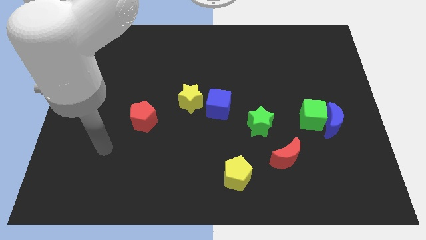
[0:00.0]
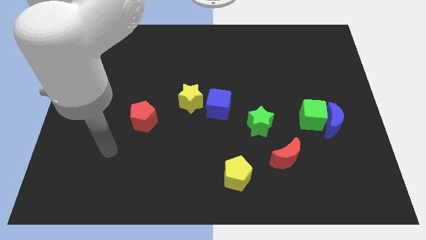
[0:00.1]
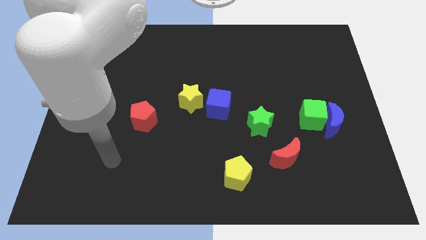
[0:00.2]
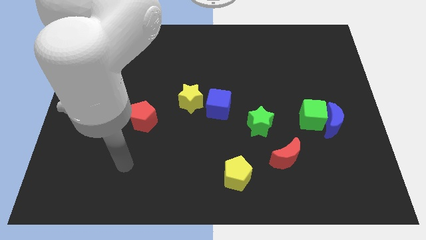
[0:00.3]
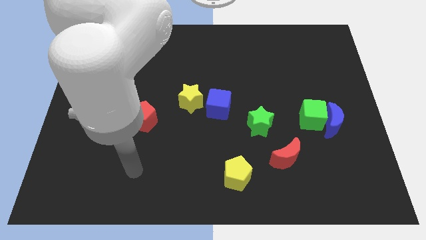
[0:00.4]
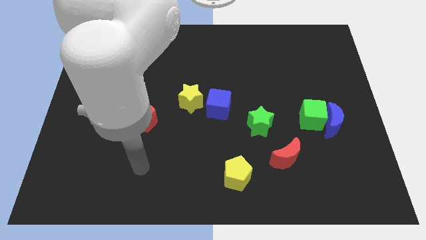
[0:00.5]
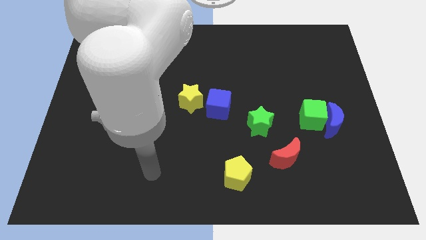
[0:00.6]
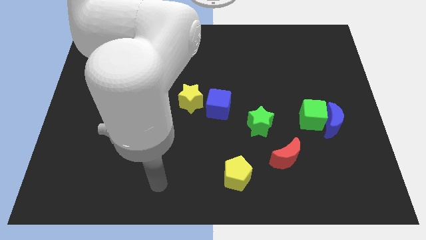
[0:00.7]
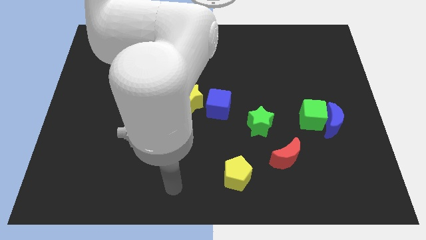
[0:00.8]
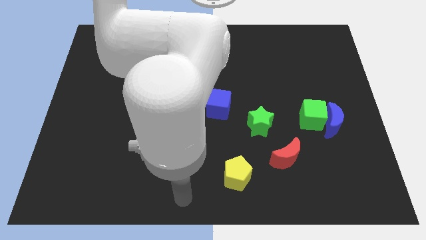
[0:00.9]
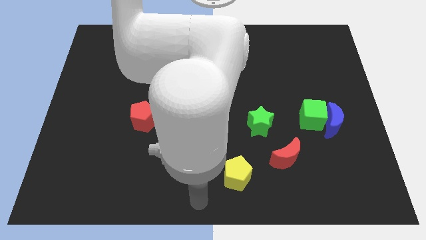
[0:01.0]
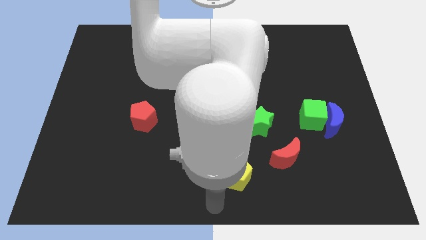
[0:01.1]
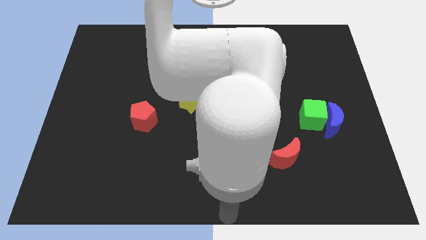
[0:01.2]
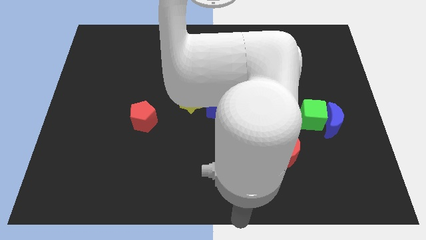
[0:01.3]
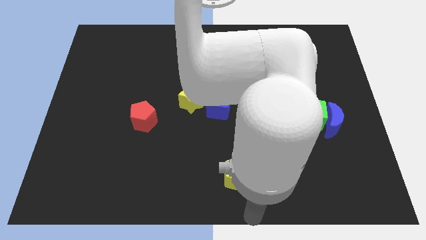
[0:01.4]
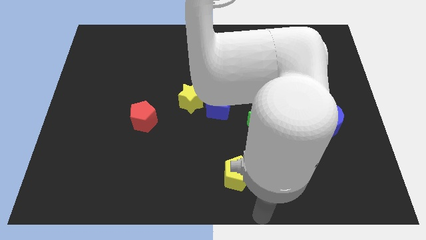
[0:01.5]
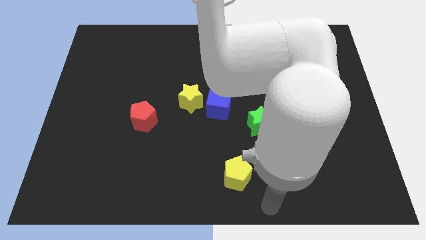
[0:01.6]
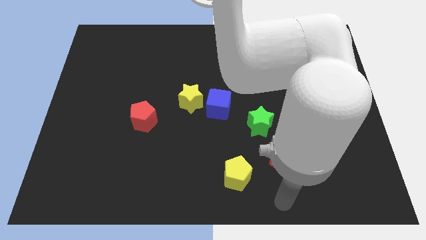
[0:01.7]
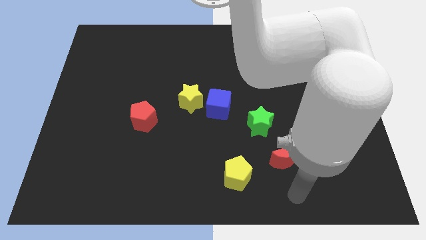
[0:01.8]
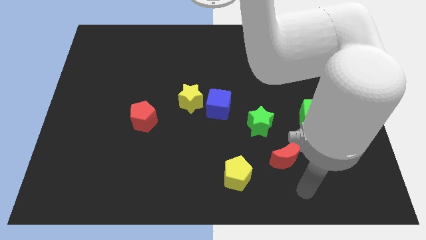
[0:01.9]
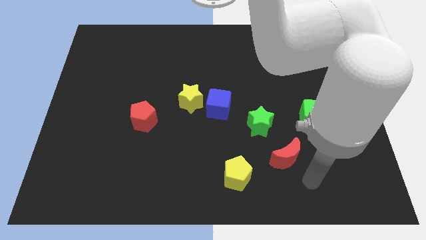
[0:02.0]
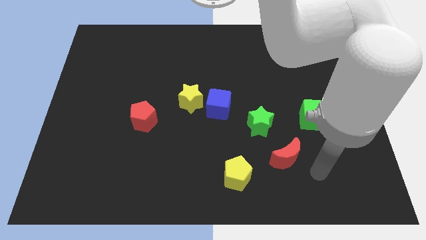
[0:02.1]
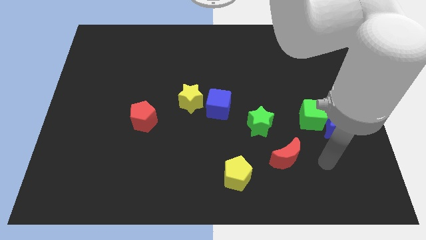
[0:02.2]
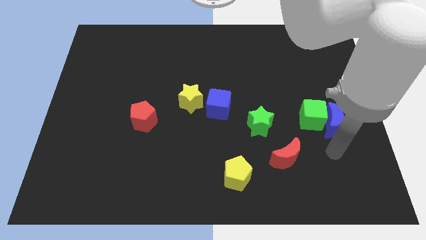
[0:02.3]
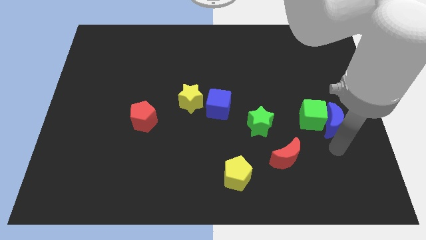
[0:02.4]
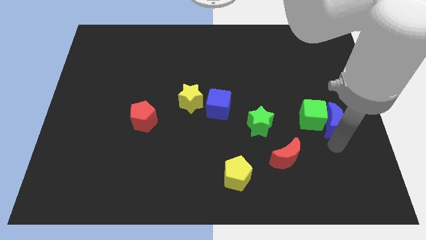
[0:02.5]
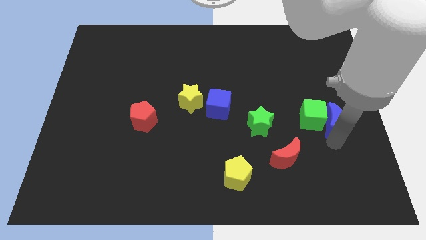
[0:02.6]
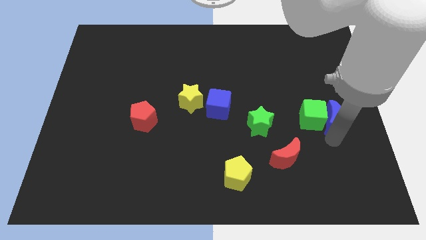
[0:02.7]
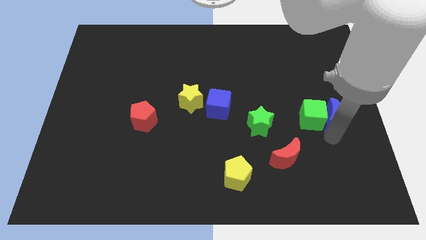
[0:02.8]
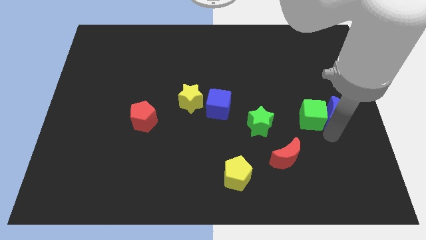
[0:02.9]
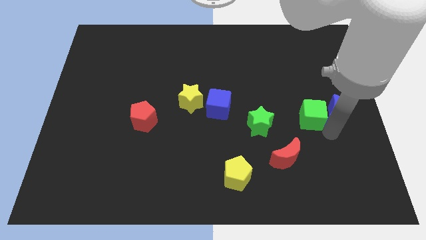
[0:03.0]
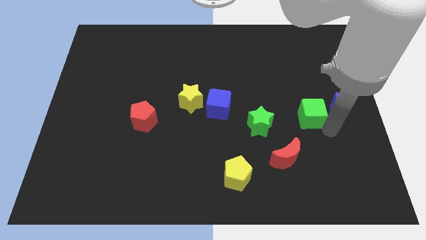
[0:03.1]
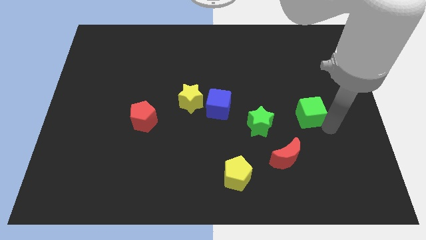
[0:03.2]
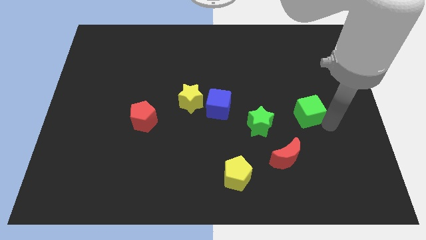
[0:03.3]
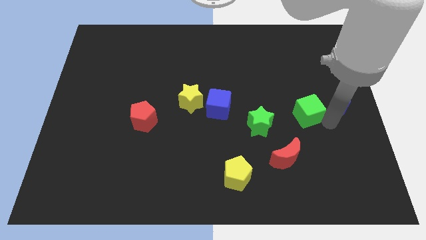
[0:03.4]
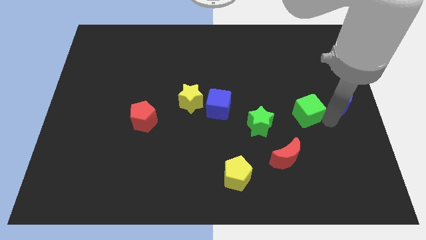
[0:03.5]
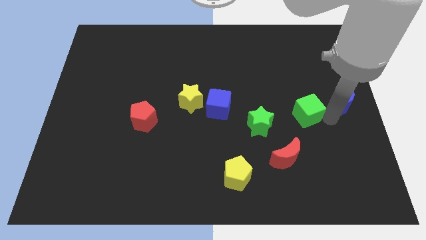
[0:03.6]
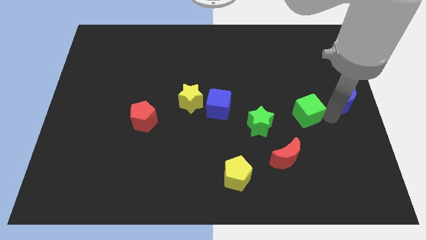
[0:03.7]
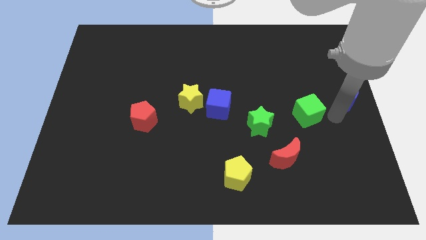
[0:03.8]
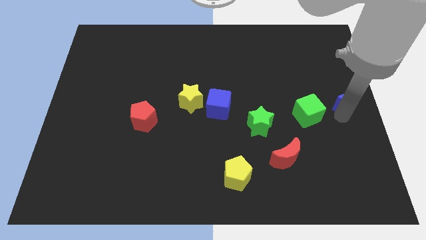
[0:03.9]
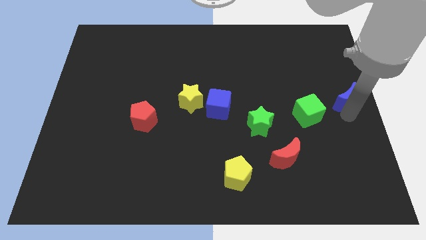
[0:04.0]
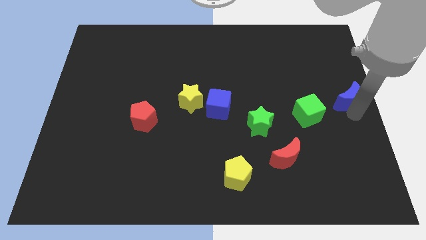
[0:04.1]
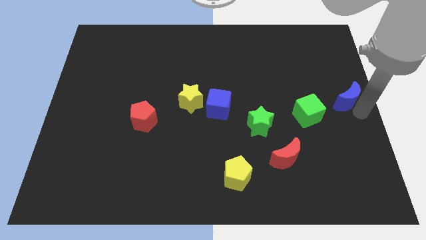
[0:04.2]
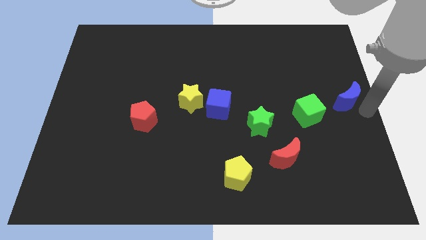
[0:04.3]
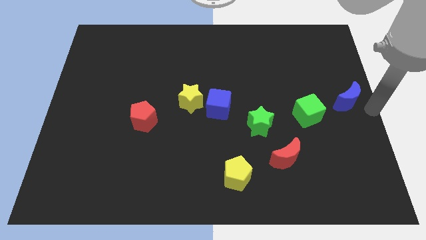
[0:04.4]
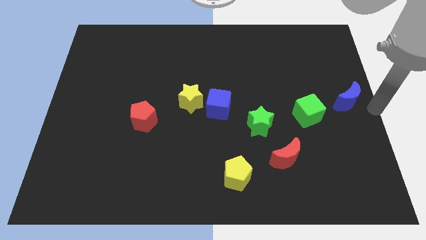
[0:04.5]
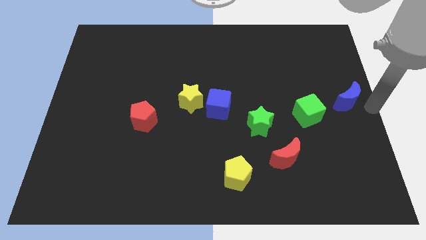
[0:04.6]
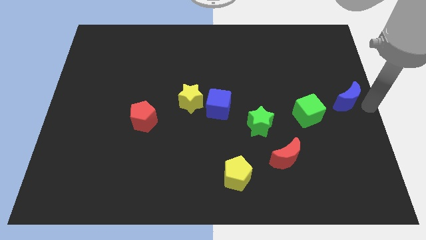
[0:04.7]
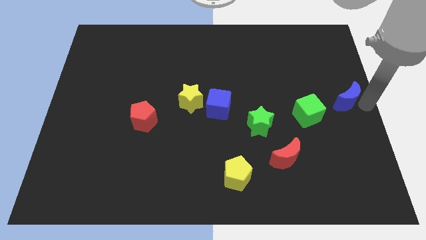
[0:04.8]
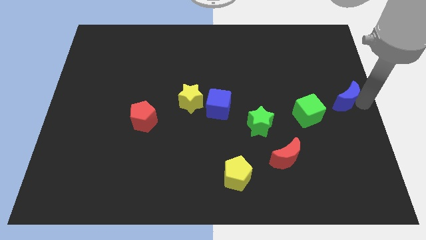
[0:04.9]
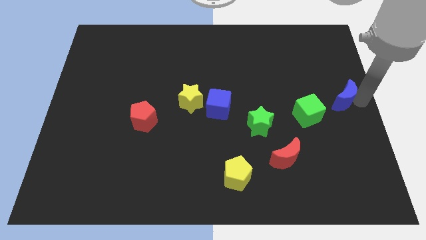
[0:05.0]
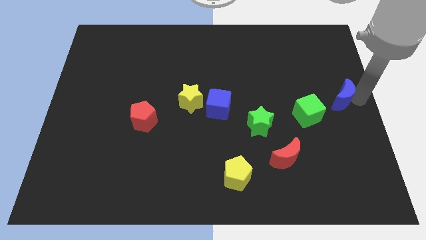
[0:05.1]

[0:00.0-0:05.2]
slightly push the blue moon up

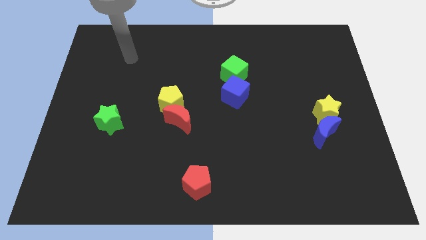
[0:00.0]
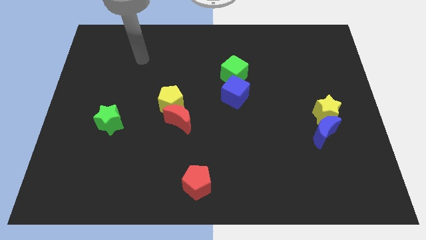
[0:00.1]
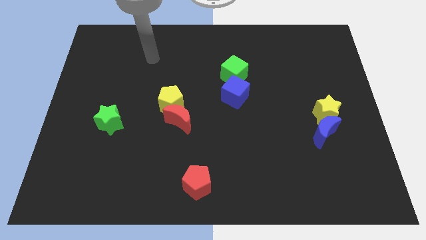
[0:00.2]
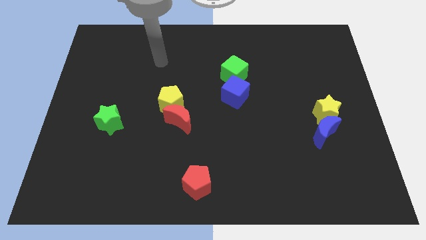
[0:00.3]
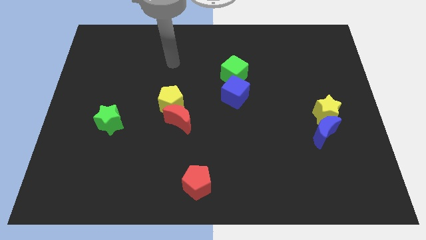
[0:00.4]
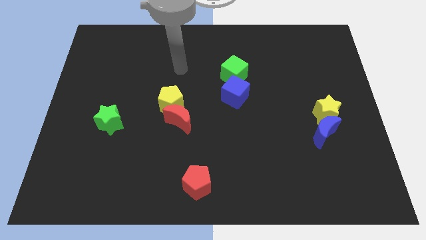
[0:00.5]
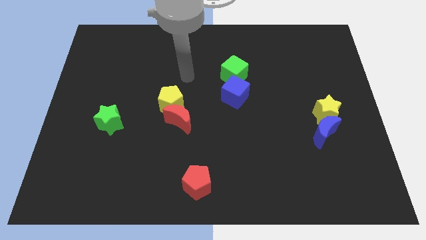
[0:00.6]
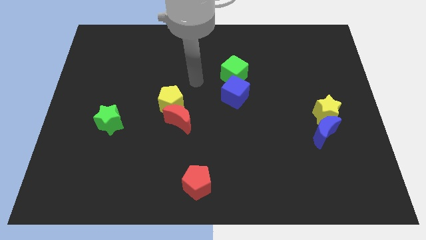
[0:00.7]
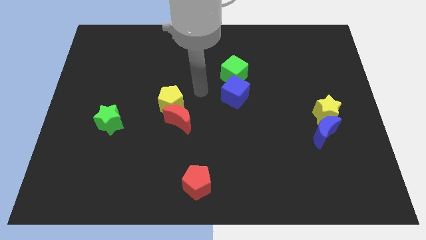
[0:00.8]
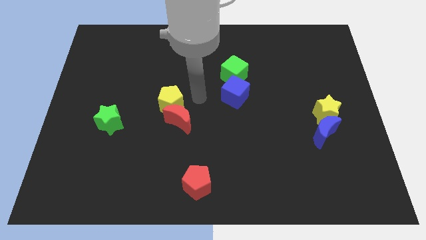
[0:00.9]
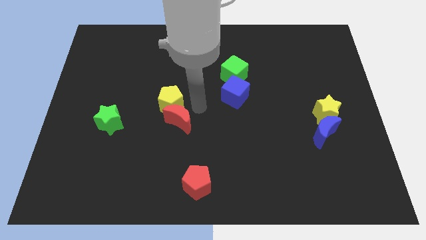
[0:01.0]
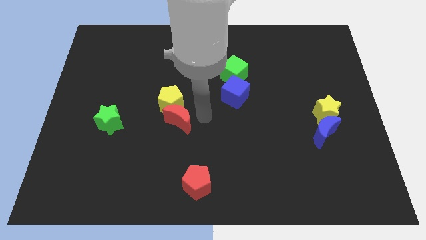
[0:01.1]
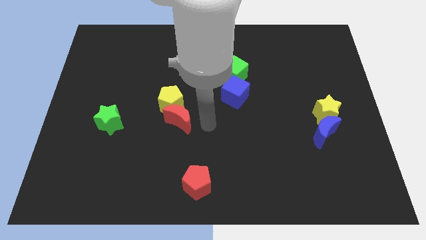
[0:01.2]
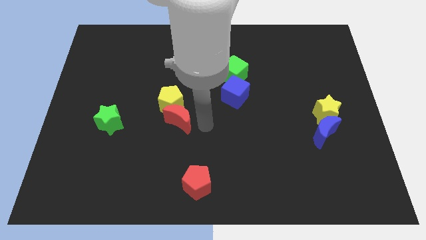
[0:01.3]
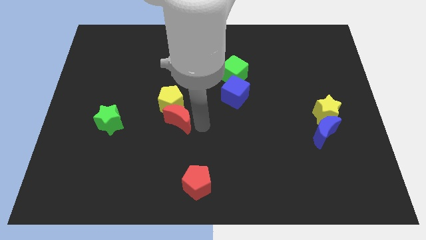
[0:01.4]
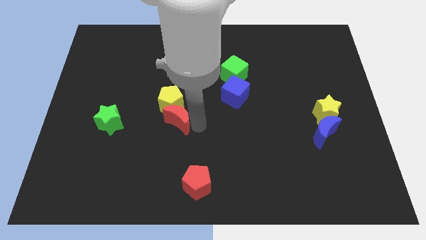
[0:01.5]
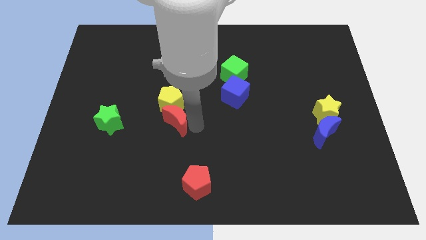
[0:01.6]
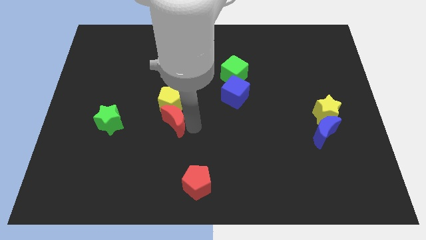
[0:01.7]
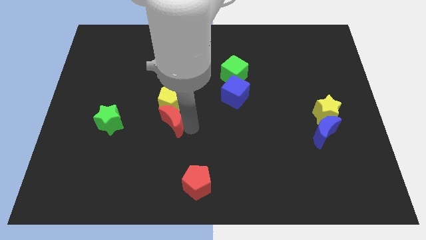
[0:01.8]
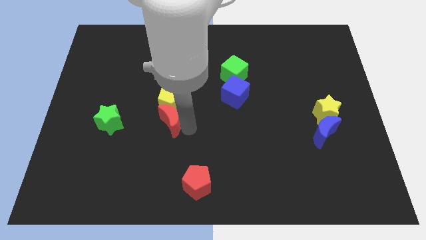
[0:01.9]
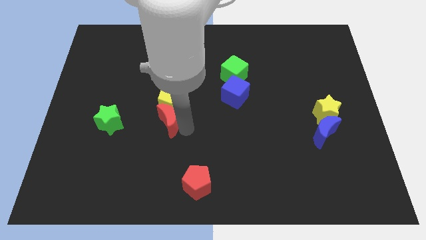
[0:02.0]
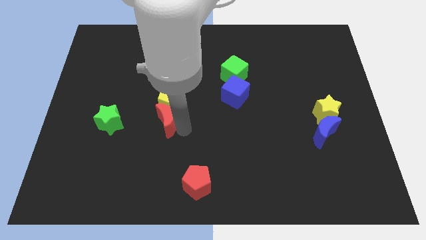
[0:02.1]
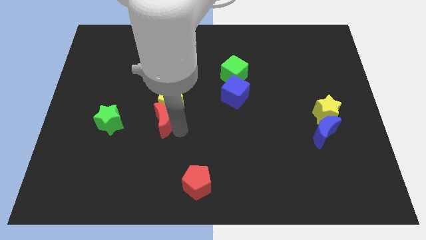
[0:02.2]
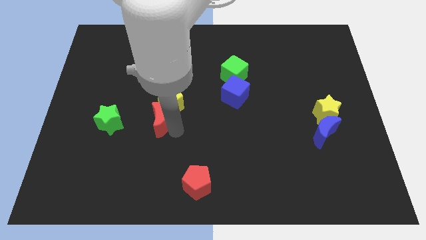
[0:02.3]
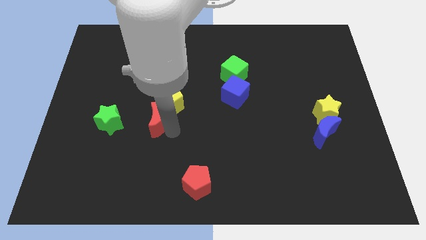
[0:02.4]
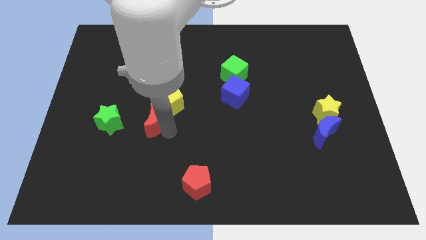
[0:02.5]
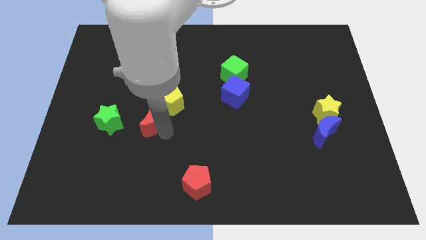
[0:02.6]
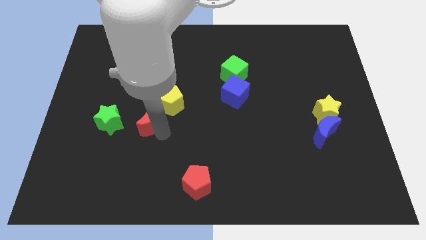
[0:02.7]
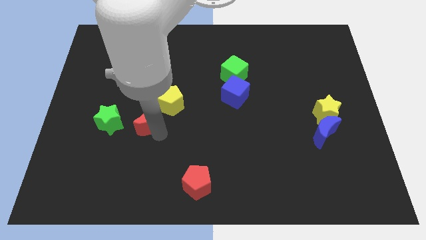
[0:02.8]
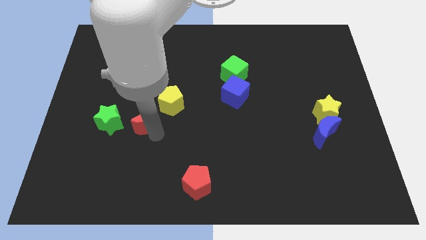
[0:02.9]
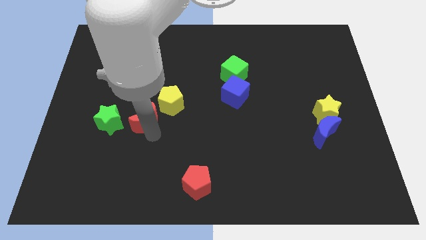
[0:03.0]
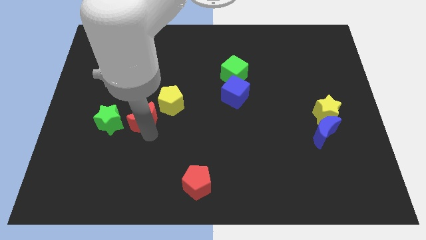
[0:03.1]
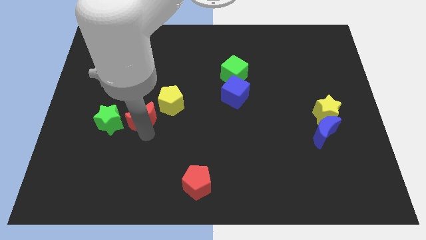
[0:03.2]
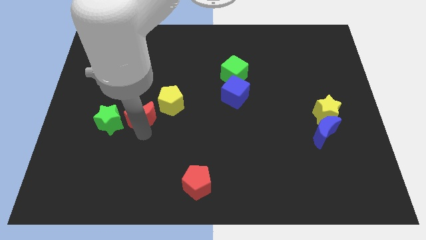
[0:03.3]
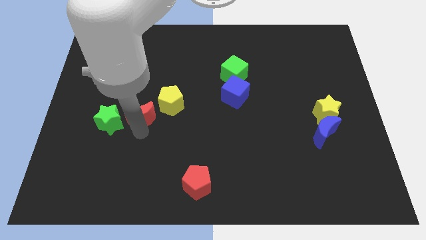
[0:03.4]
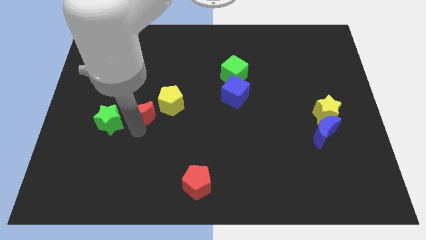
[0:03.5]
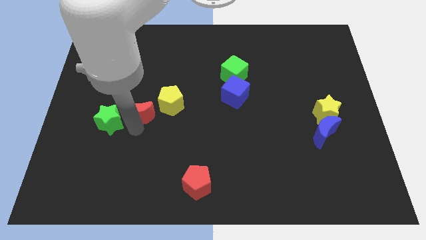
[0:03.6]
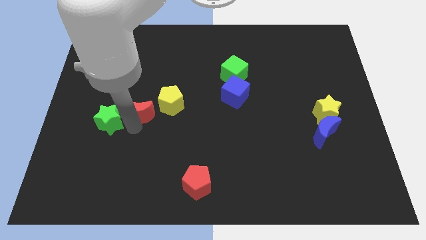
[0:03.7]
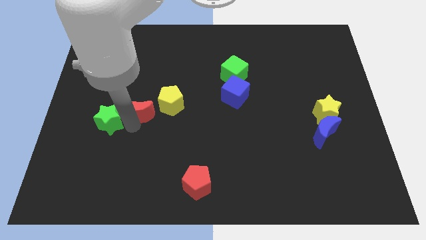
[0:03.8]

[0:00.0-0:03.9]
move the red moon up and then to the left somewhat
